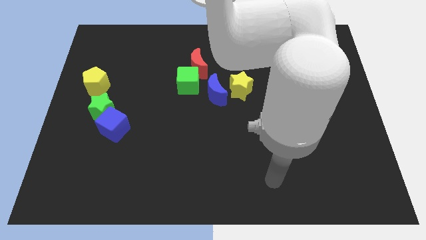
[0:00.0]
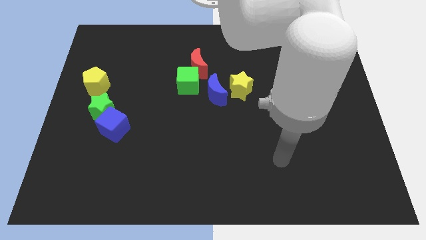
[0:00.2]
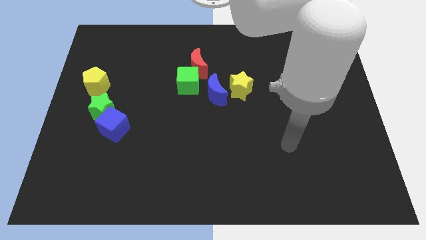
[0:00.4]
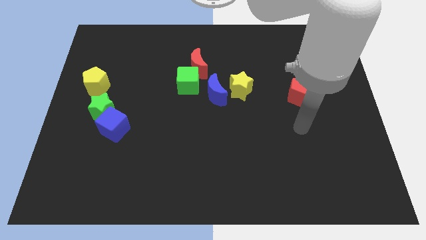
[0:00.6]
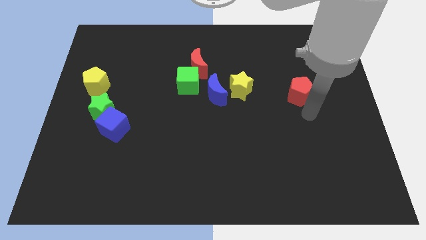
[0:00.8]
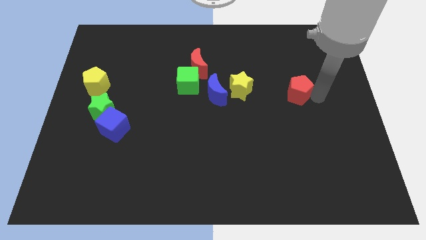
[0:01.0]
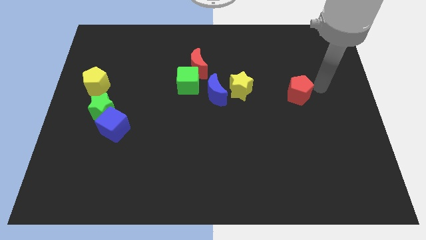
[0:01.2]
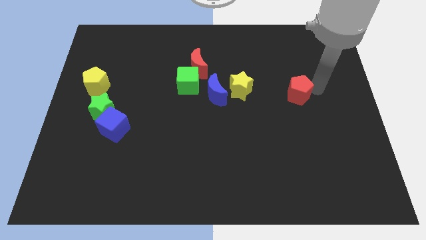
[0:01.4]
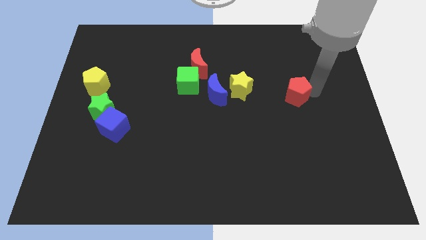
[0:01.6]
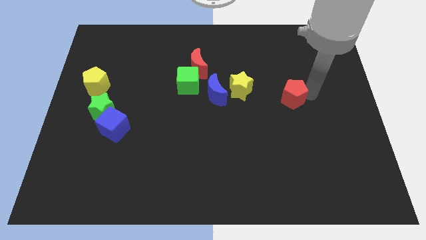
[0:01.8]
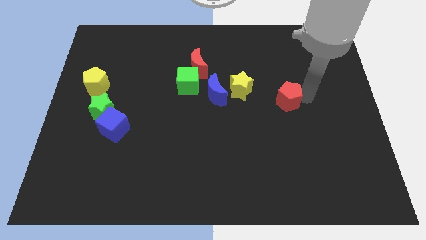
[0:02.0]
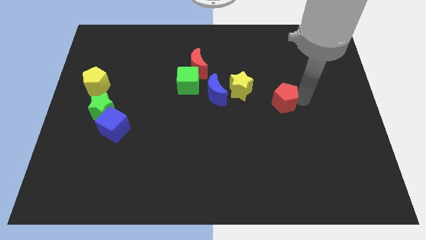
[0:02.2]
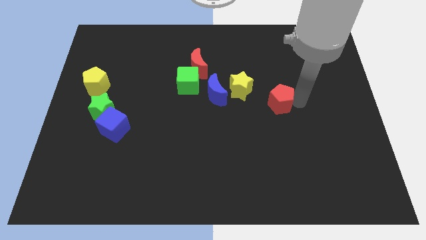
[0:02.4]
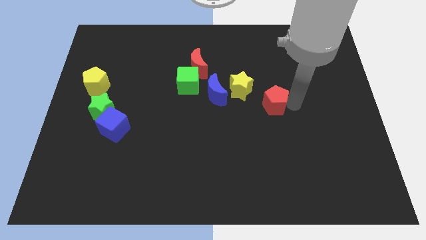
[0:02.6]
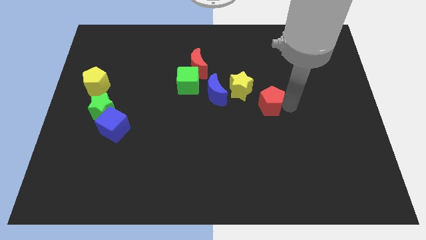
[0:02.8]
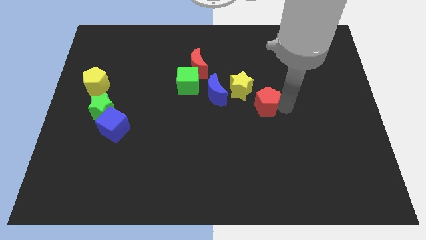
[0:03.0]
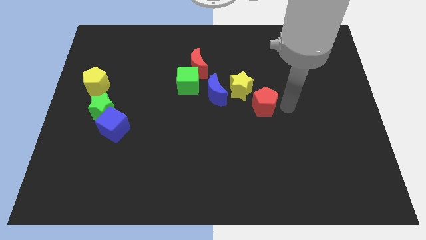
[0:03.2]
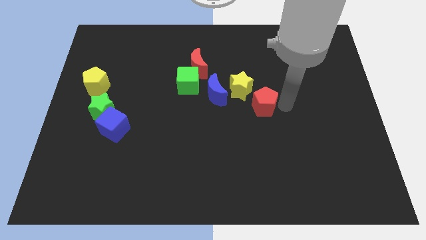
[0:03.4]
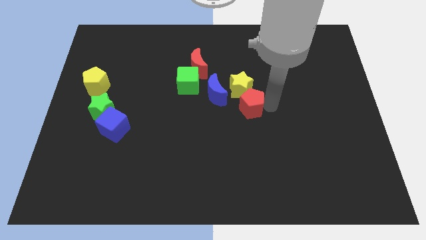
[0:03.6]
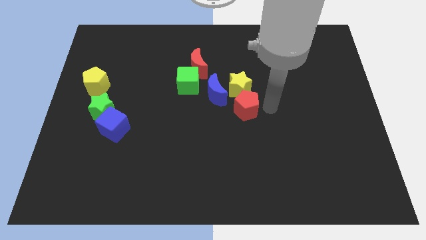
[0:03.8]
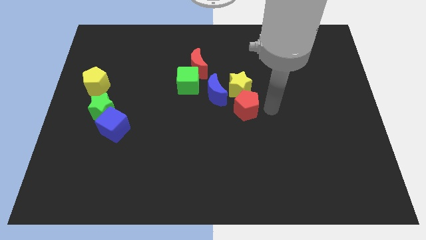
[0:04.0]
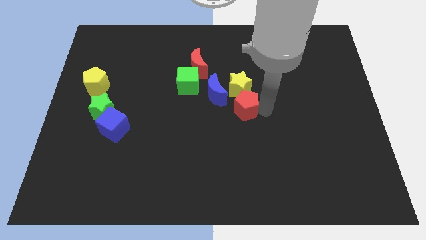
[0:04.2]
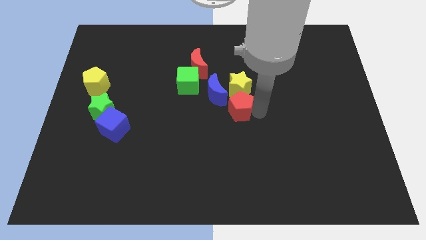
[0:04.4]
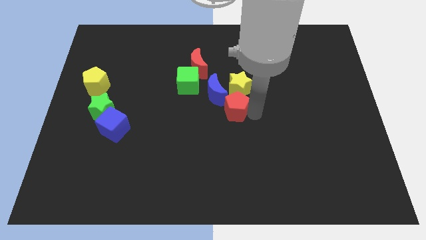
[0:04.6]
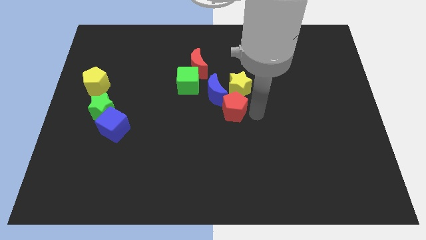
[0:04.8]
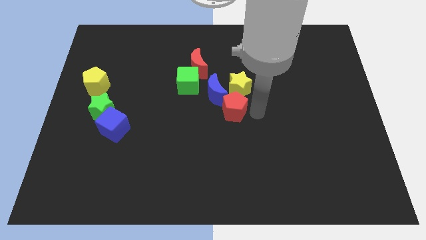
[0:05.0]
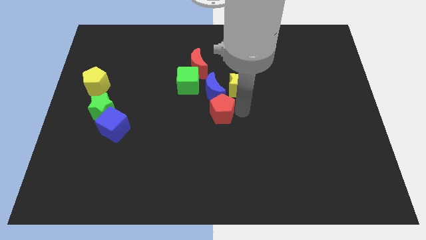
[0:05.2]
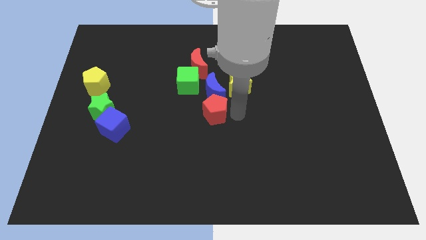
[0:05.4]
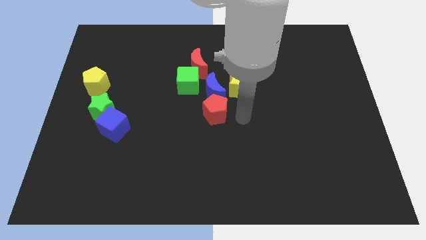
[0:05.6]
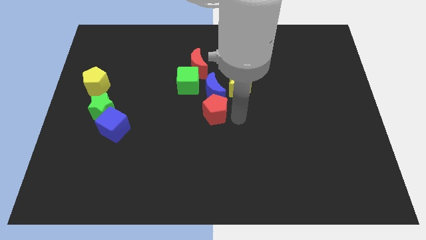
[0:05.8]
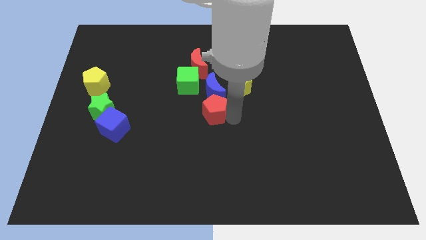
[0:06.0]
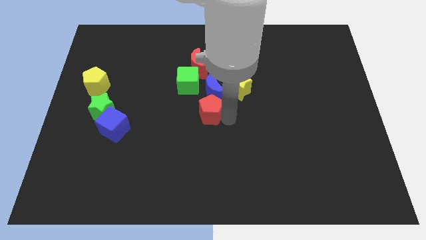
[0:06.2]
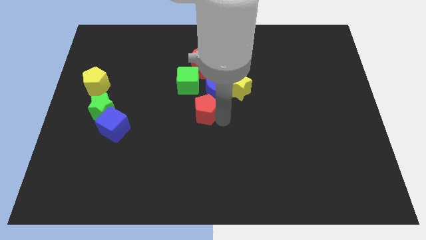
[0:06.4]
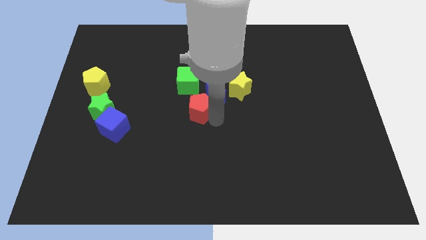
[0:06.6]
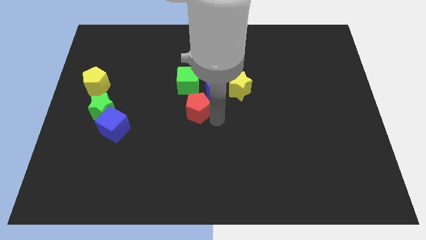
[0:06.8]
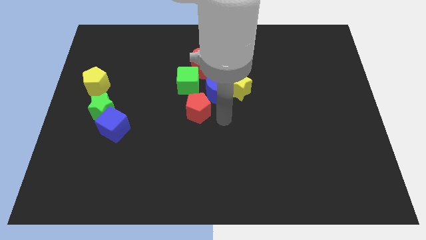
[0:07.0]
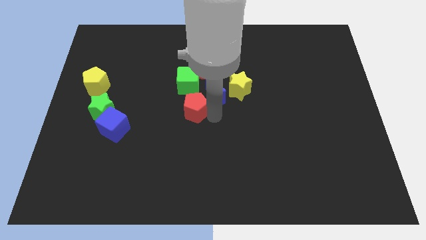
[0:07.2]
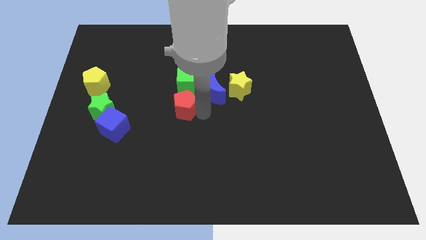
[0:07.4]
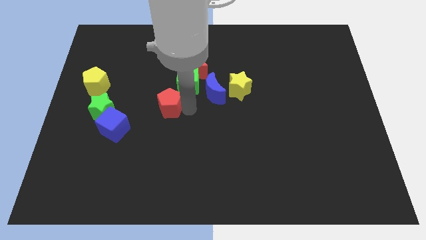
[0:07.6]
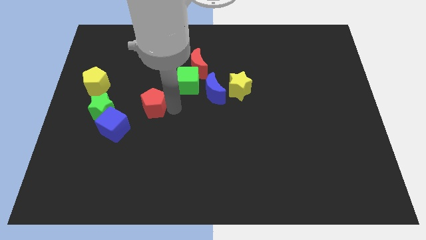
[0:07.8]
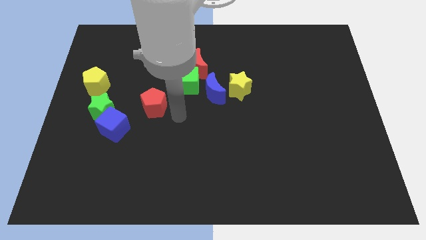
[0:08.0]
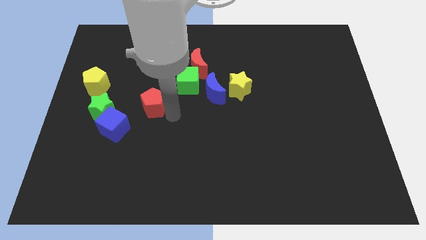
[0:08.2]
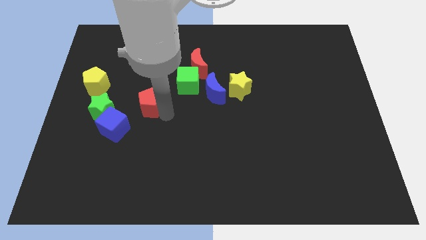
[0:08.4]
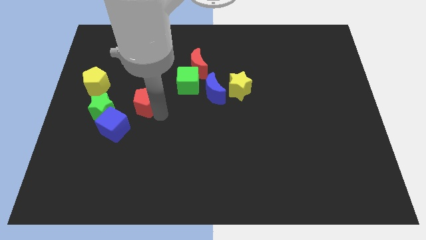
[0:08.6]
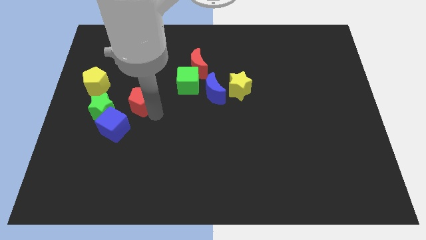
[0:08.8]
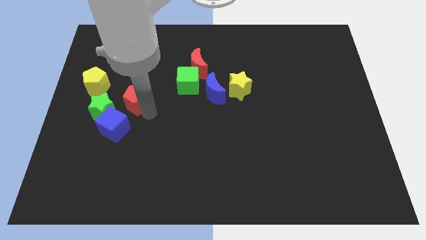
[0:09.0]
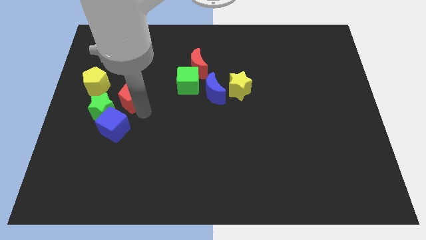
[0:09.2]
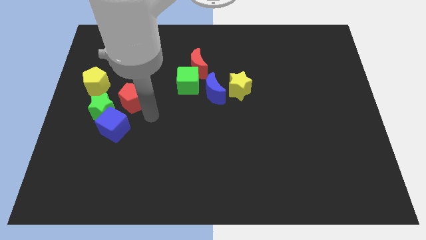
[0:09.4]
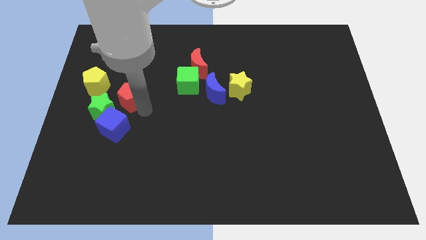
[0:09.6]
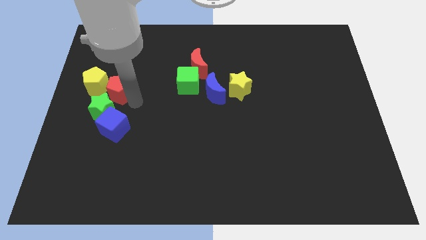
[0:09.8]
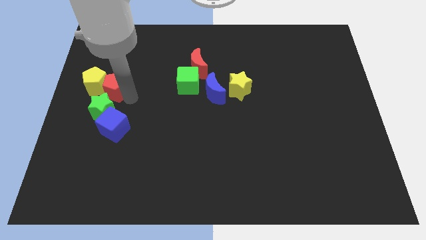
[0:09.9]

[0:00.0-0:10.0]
slide the red pentagon next to the yellow pentagon

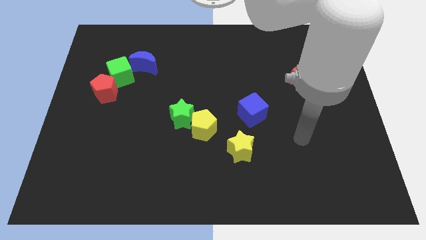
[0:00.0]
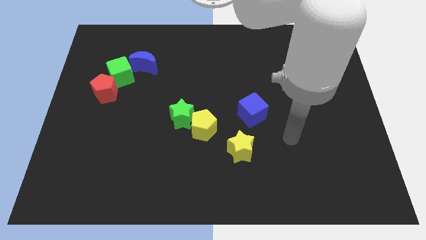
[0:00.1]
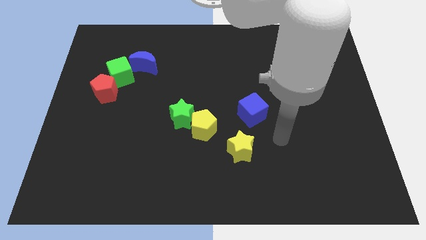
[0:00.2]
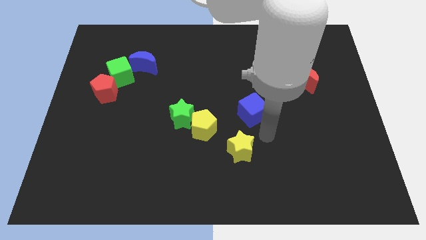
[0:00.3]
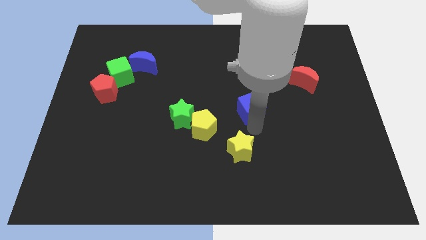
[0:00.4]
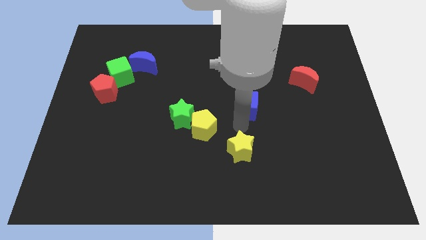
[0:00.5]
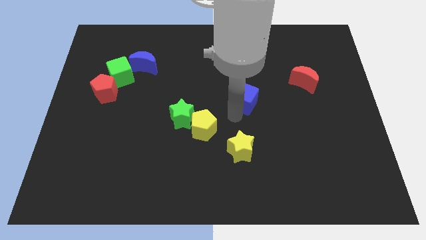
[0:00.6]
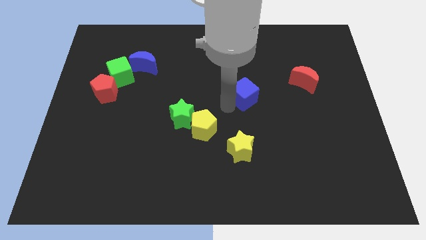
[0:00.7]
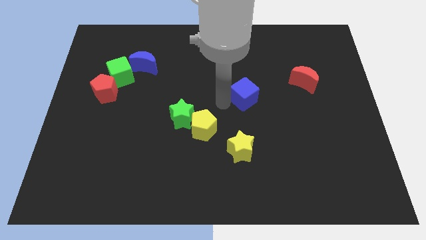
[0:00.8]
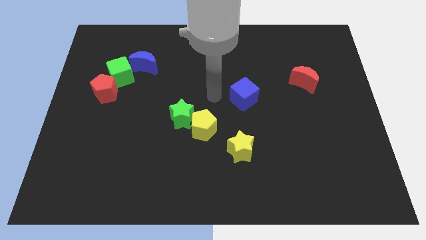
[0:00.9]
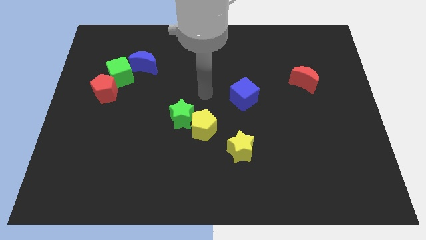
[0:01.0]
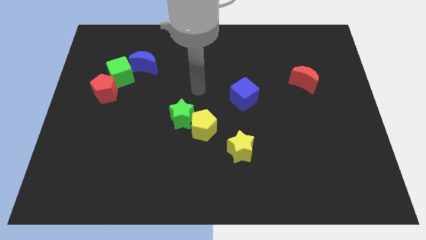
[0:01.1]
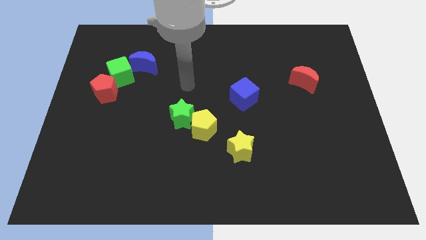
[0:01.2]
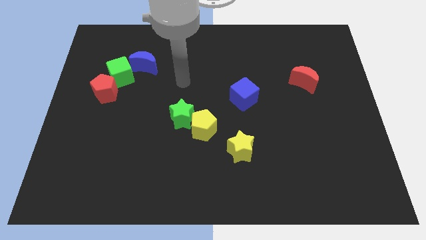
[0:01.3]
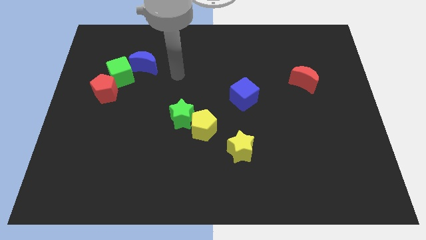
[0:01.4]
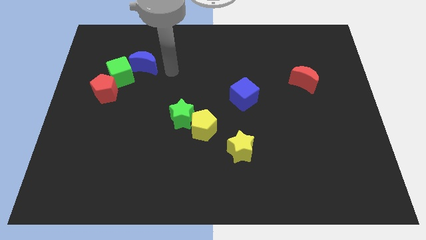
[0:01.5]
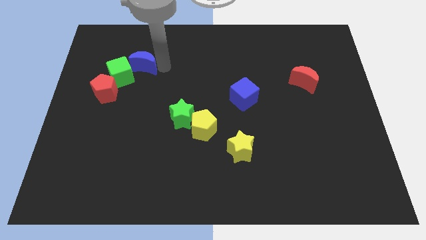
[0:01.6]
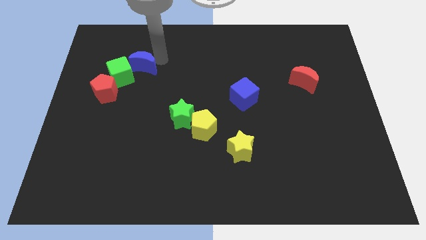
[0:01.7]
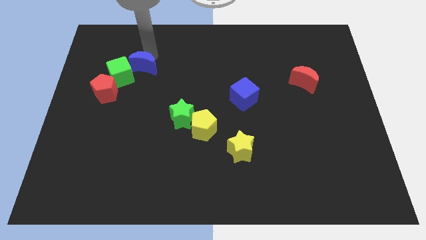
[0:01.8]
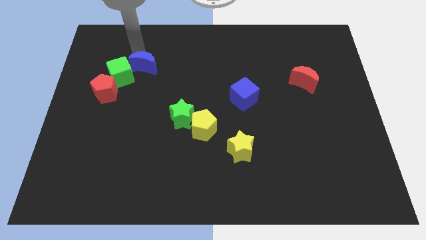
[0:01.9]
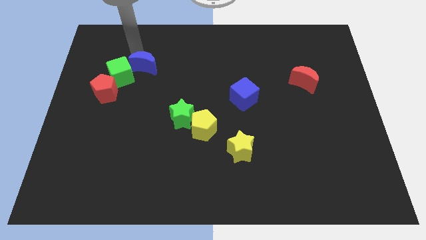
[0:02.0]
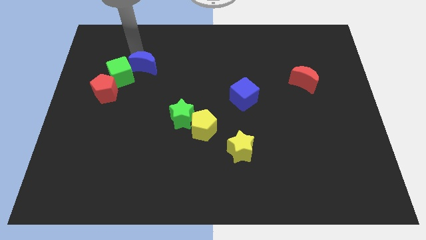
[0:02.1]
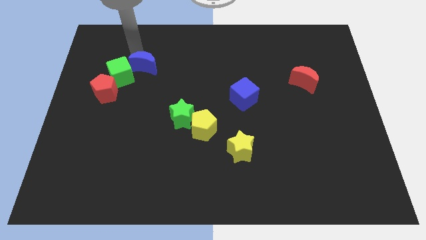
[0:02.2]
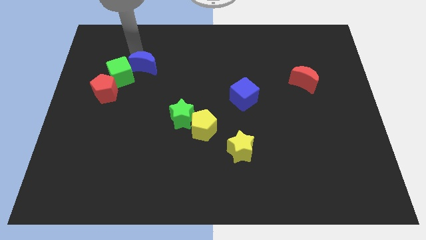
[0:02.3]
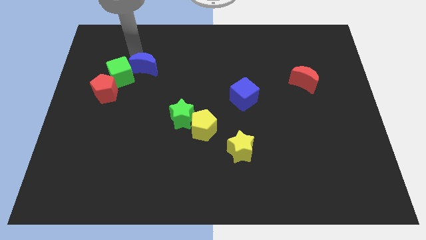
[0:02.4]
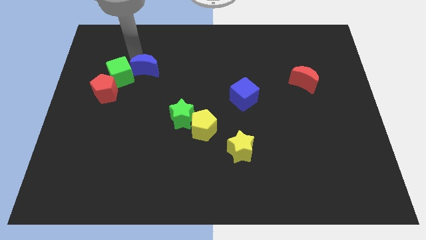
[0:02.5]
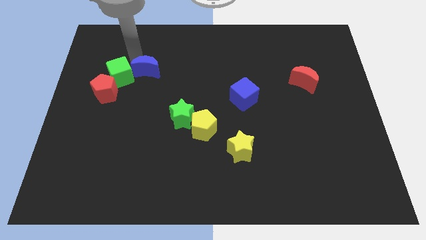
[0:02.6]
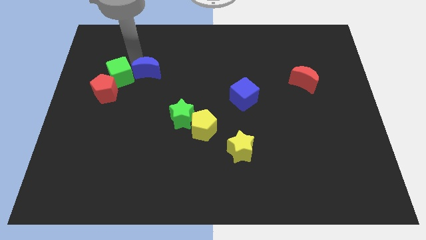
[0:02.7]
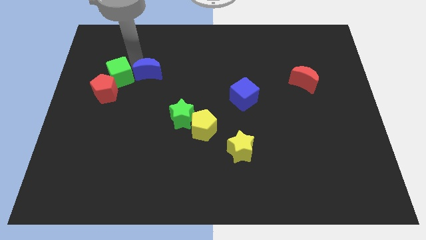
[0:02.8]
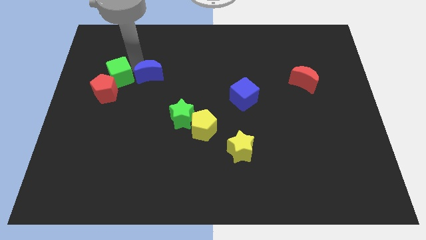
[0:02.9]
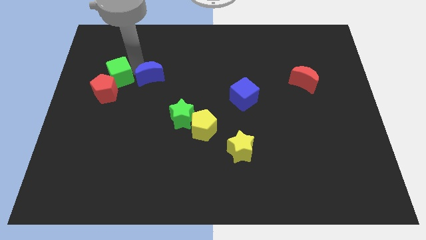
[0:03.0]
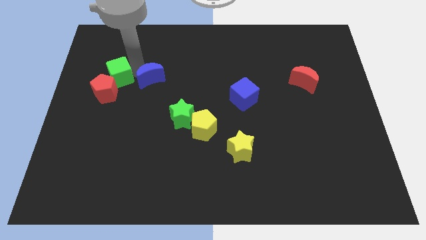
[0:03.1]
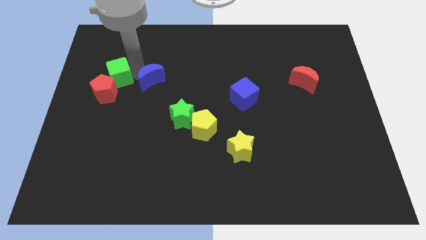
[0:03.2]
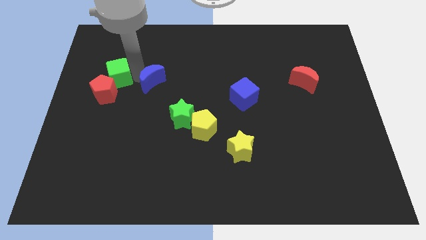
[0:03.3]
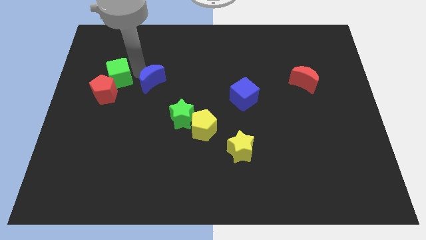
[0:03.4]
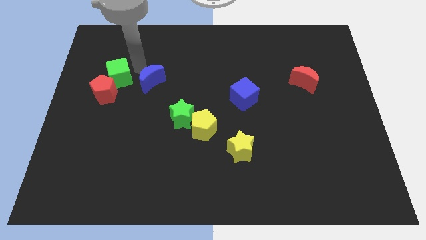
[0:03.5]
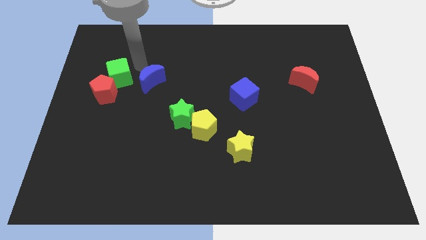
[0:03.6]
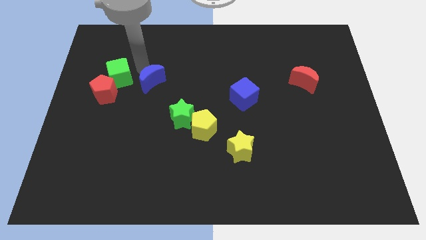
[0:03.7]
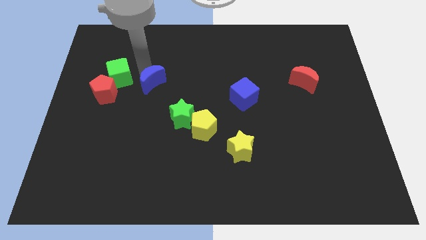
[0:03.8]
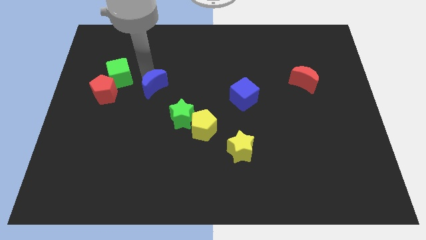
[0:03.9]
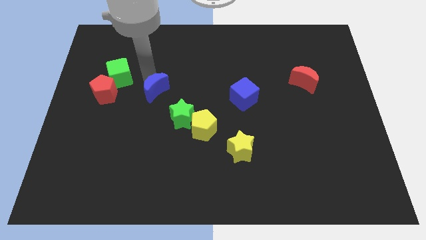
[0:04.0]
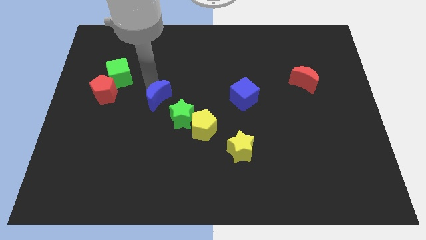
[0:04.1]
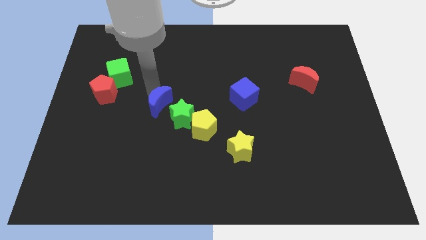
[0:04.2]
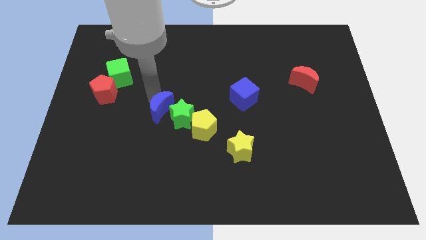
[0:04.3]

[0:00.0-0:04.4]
push the blue moon close to the green star
